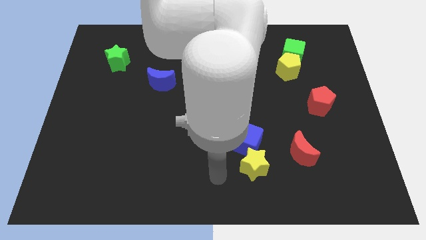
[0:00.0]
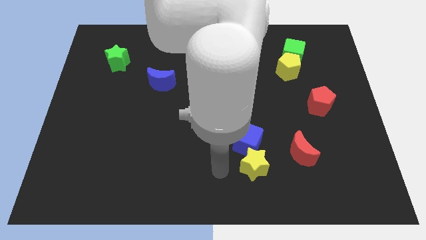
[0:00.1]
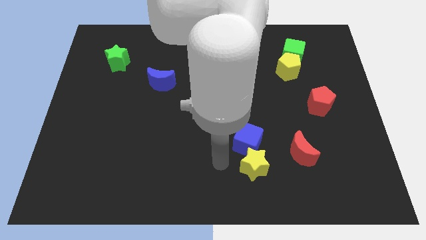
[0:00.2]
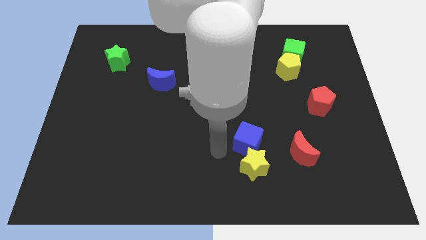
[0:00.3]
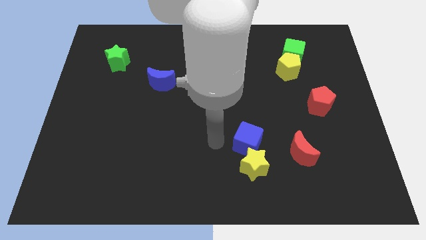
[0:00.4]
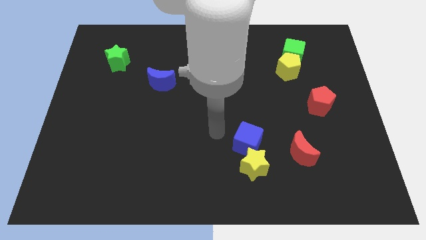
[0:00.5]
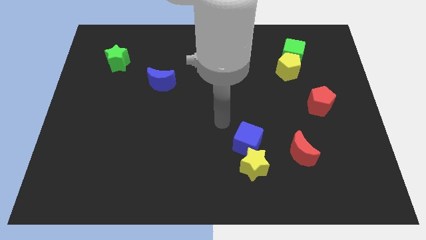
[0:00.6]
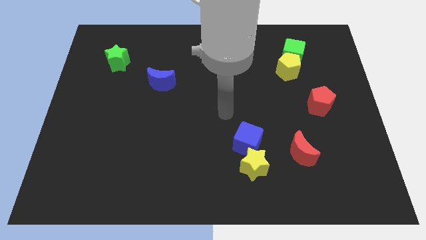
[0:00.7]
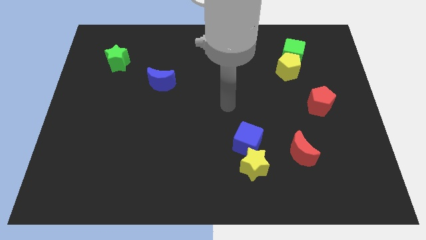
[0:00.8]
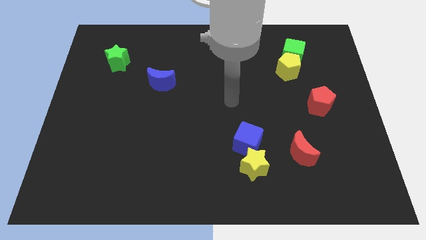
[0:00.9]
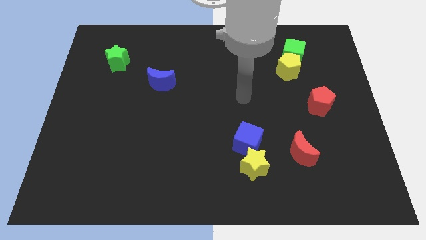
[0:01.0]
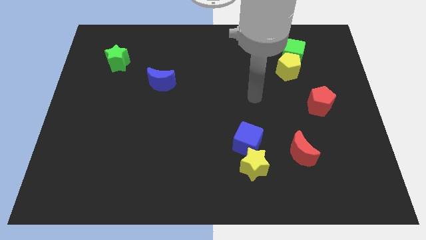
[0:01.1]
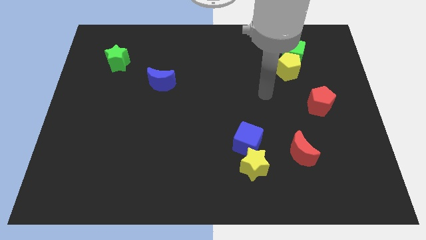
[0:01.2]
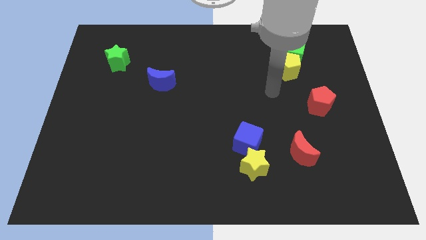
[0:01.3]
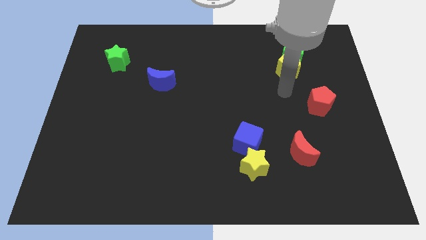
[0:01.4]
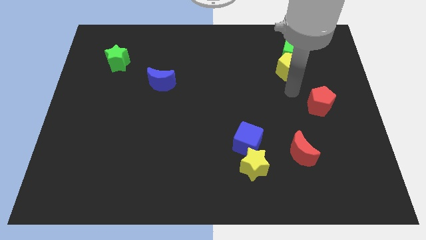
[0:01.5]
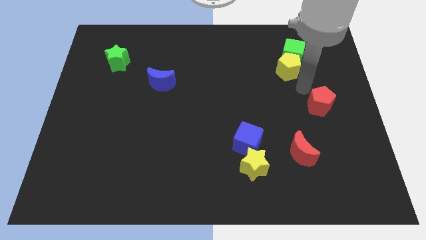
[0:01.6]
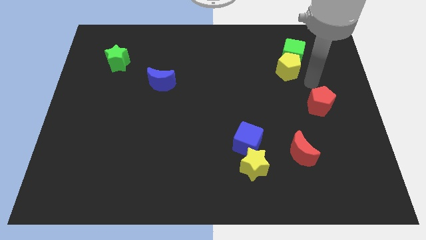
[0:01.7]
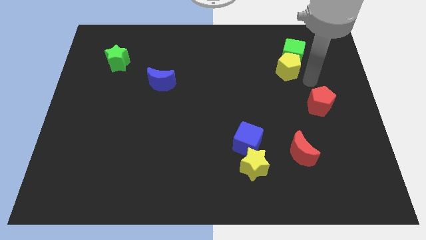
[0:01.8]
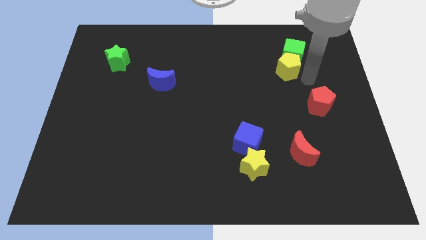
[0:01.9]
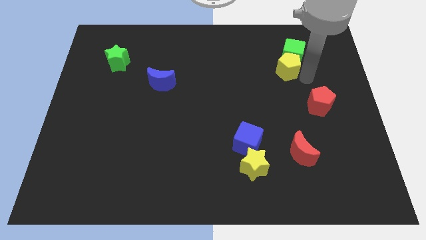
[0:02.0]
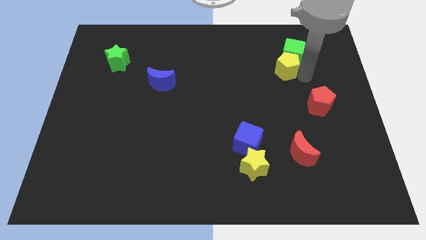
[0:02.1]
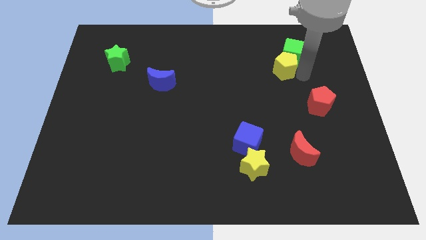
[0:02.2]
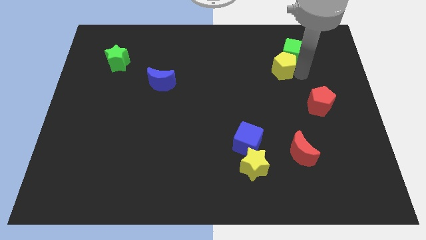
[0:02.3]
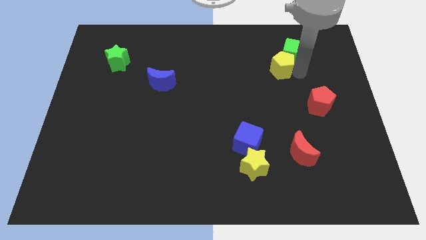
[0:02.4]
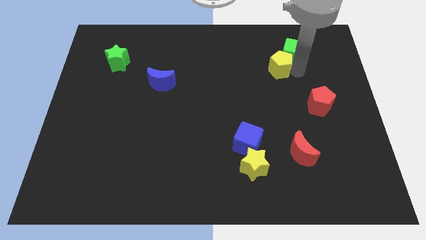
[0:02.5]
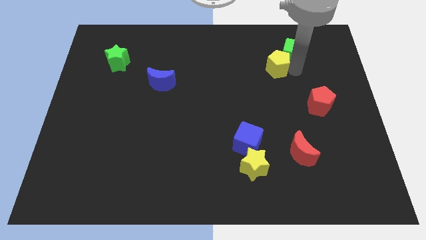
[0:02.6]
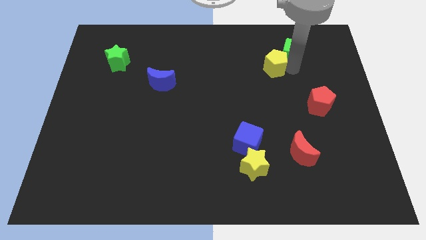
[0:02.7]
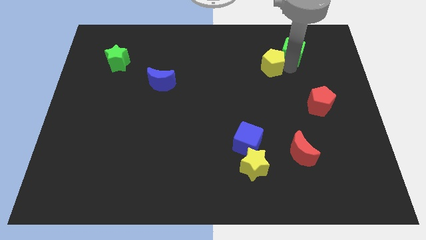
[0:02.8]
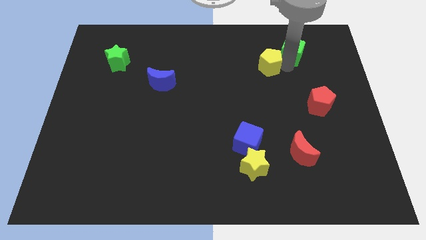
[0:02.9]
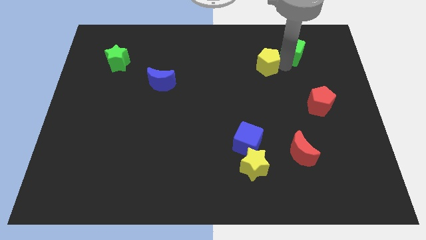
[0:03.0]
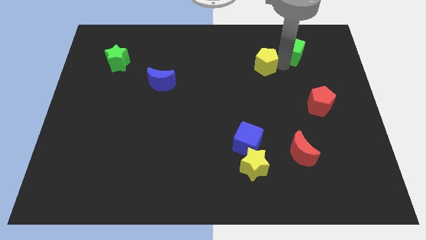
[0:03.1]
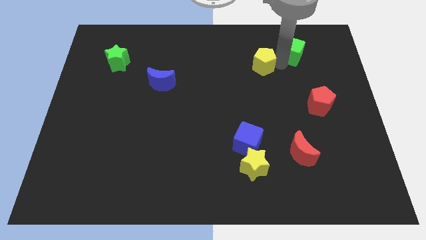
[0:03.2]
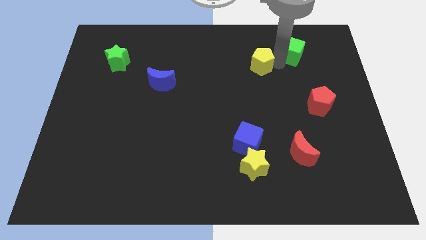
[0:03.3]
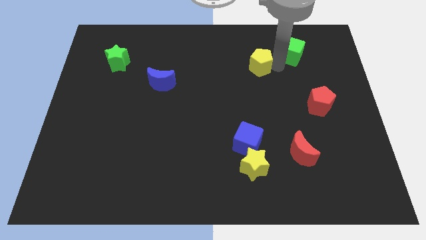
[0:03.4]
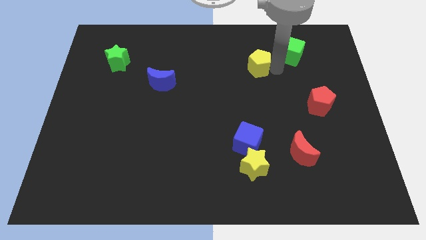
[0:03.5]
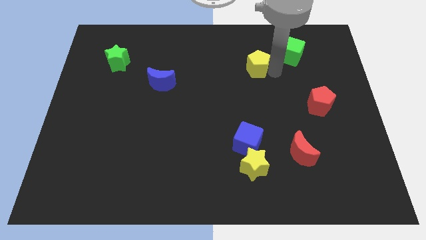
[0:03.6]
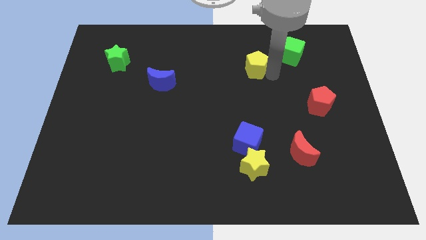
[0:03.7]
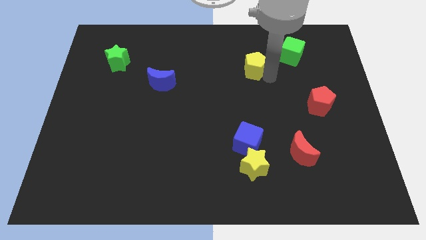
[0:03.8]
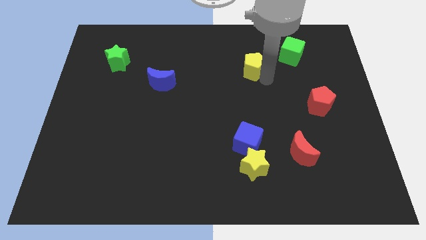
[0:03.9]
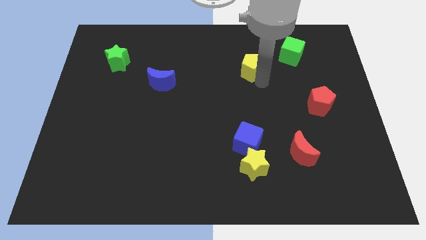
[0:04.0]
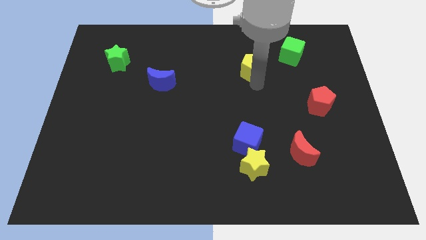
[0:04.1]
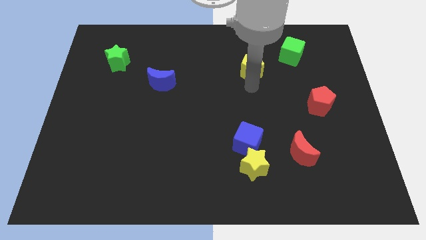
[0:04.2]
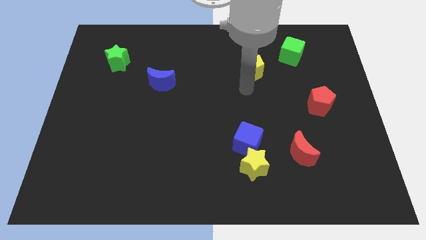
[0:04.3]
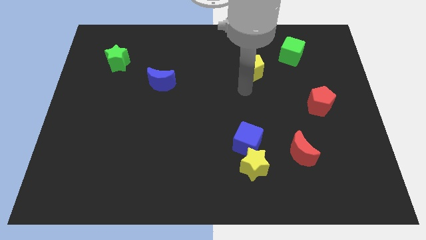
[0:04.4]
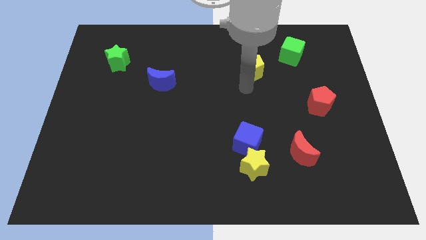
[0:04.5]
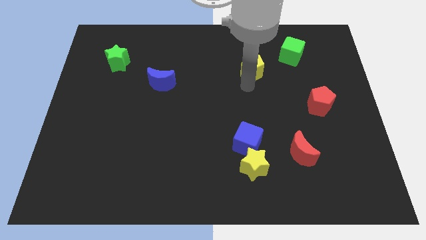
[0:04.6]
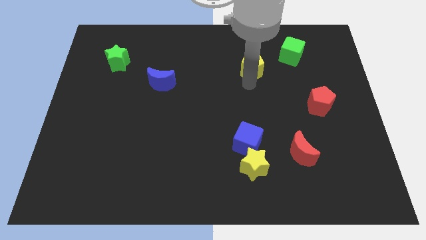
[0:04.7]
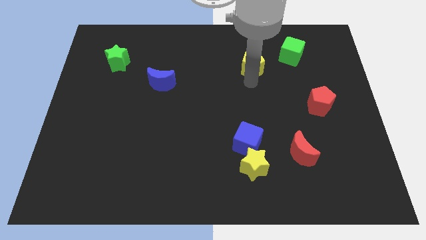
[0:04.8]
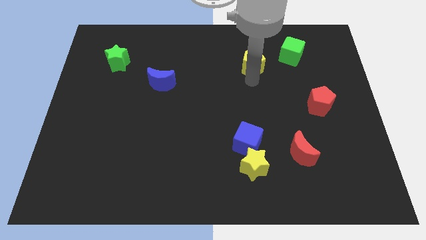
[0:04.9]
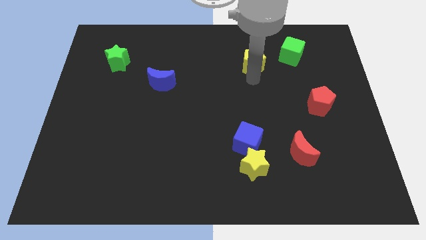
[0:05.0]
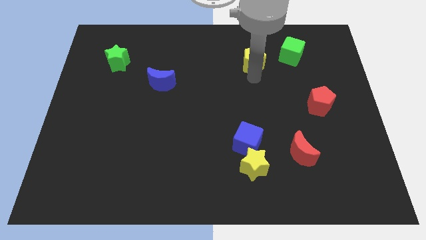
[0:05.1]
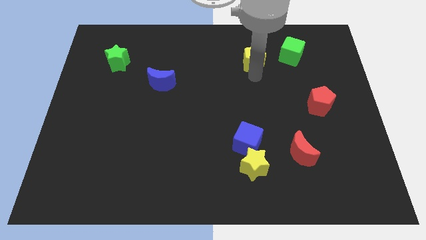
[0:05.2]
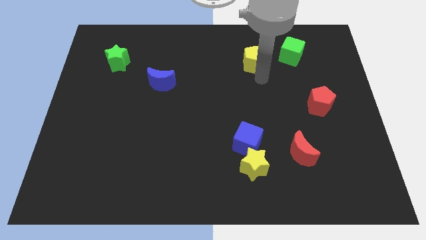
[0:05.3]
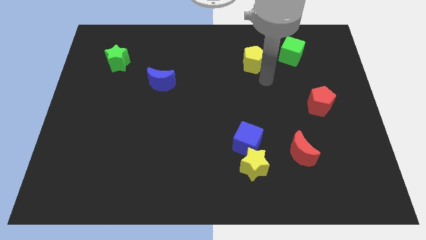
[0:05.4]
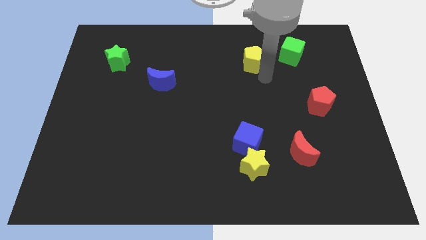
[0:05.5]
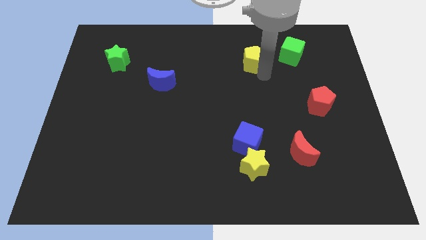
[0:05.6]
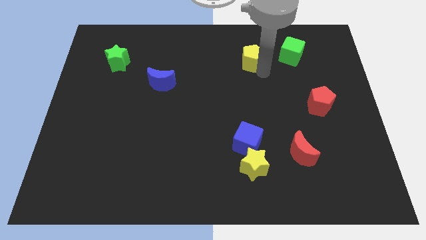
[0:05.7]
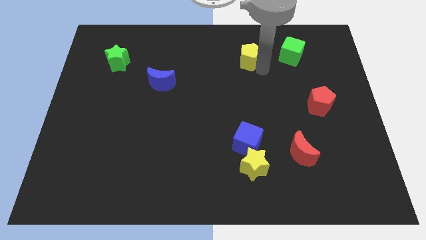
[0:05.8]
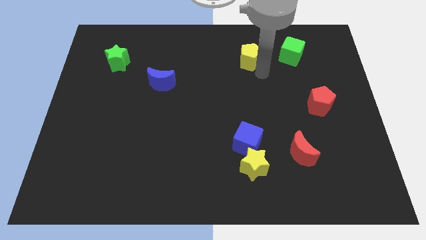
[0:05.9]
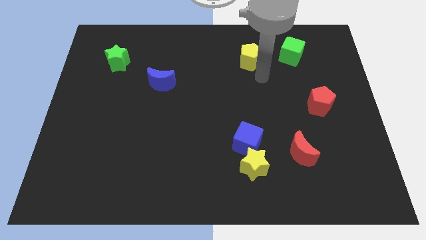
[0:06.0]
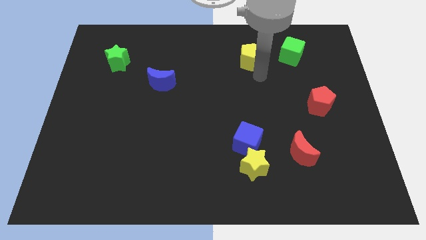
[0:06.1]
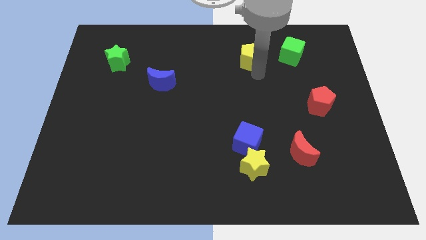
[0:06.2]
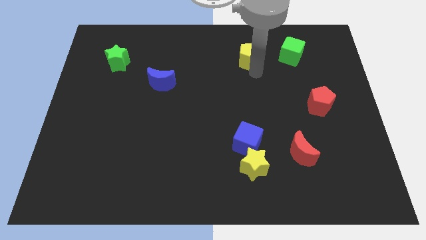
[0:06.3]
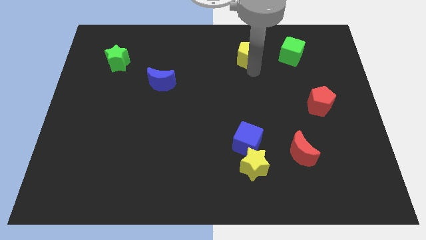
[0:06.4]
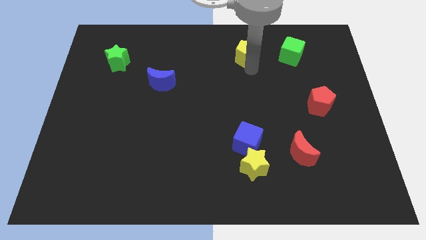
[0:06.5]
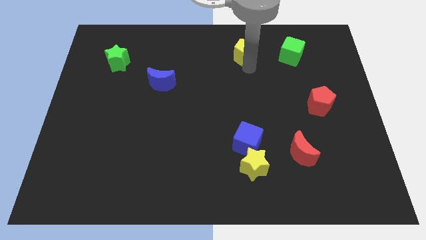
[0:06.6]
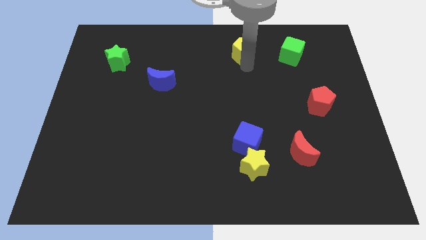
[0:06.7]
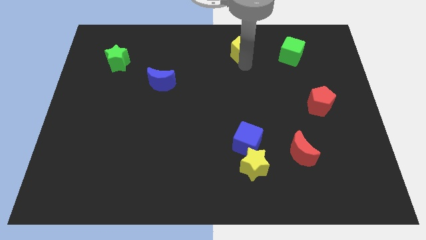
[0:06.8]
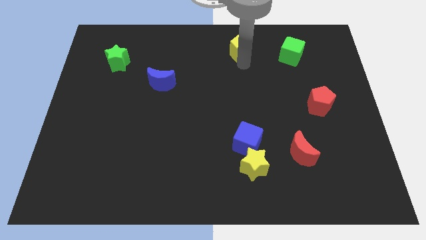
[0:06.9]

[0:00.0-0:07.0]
push the yellow pentagon to the towards your base
